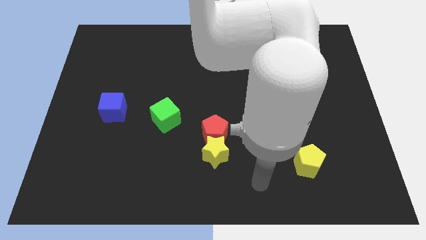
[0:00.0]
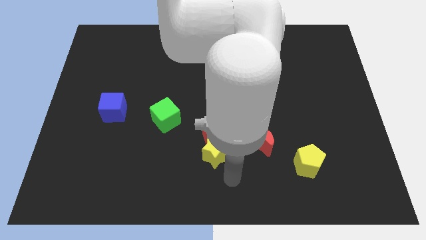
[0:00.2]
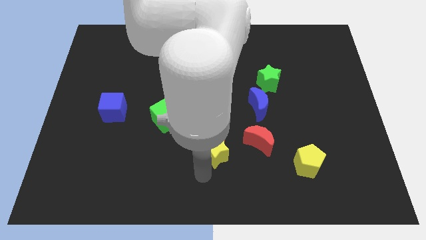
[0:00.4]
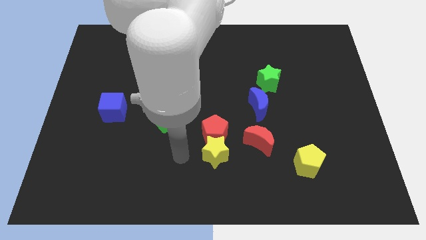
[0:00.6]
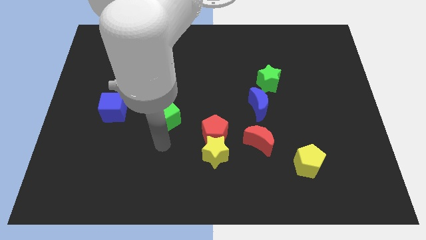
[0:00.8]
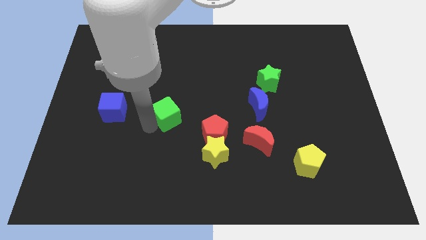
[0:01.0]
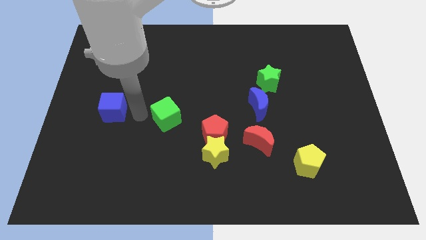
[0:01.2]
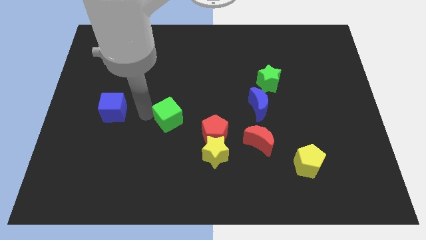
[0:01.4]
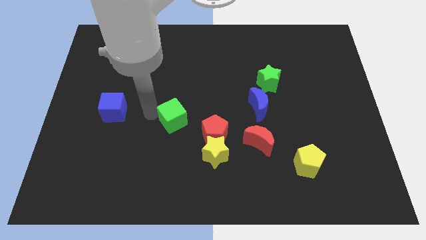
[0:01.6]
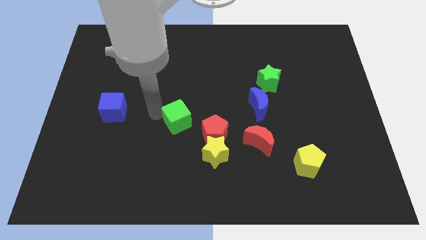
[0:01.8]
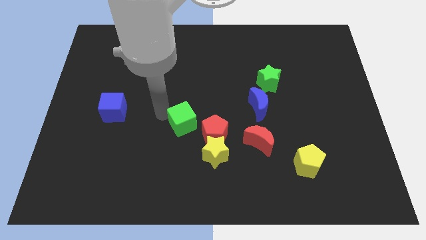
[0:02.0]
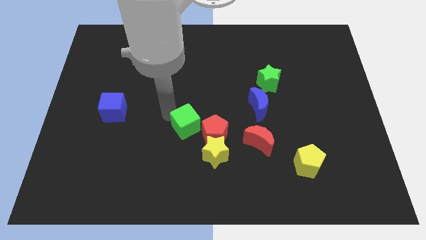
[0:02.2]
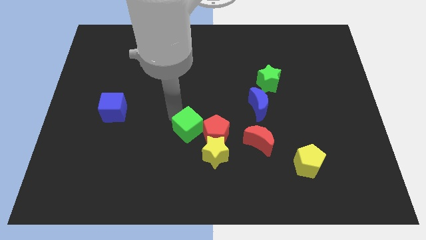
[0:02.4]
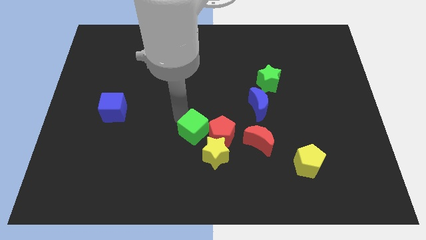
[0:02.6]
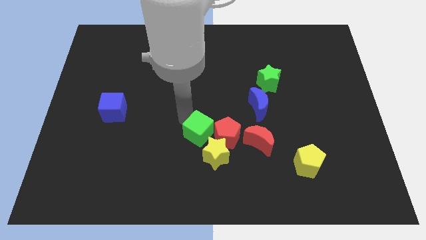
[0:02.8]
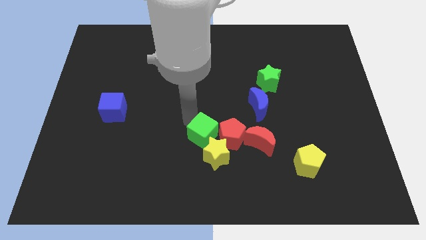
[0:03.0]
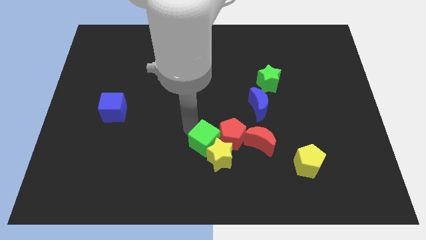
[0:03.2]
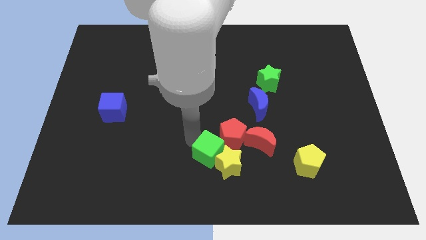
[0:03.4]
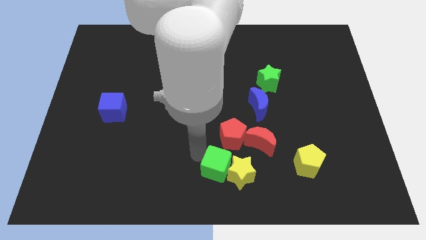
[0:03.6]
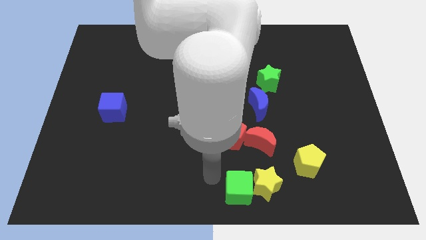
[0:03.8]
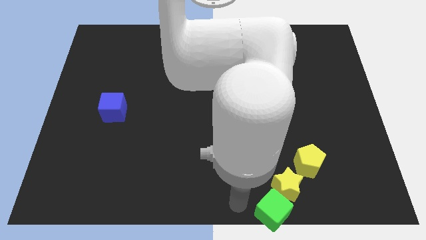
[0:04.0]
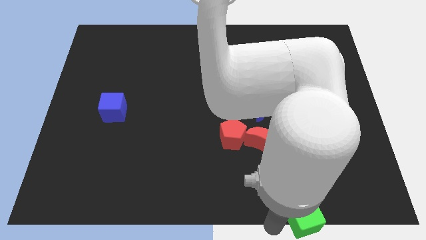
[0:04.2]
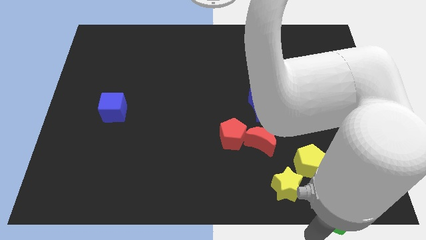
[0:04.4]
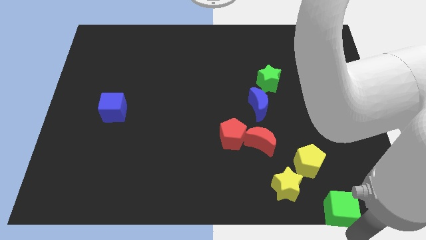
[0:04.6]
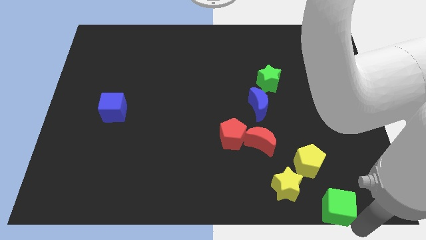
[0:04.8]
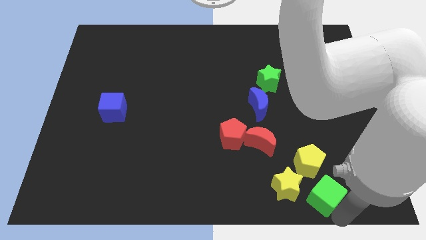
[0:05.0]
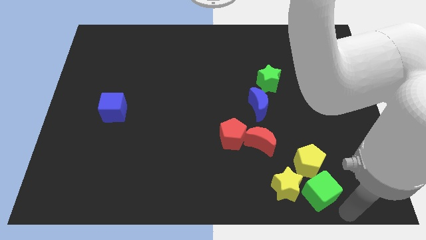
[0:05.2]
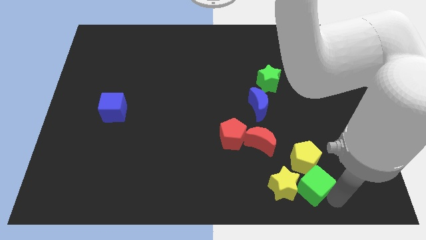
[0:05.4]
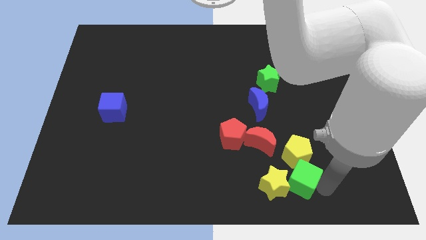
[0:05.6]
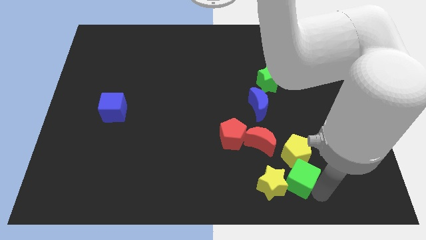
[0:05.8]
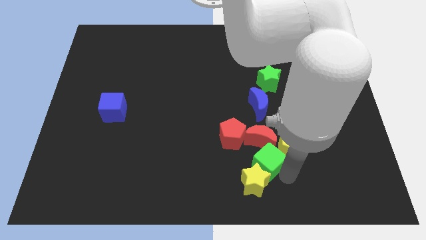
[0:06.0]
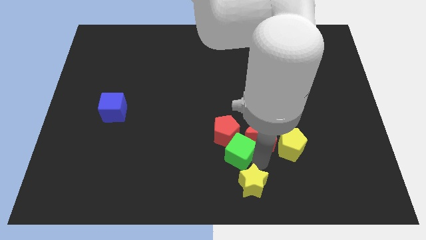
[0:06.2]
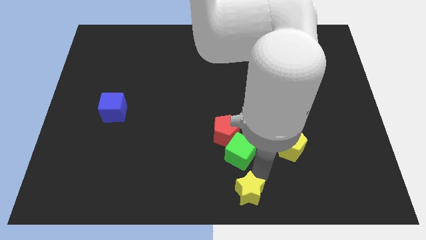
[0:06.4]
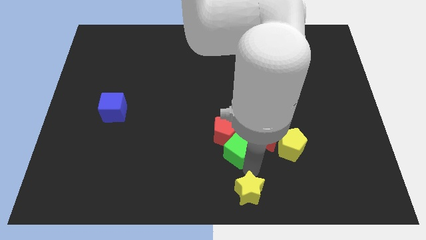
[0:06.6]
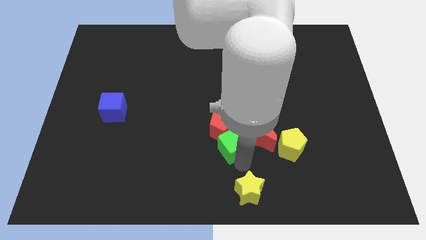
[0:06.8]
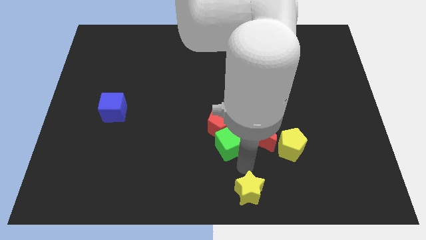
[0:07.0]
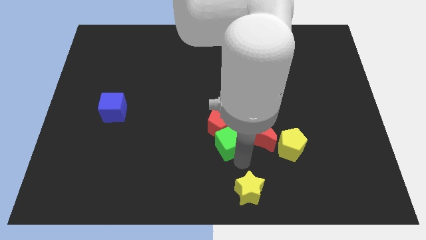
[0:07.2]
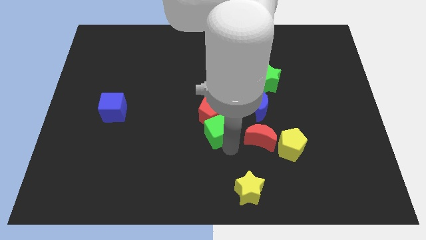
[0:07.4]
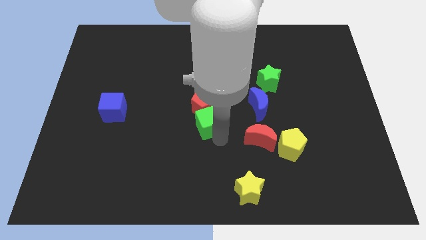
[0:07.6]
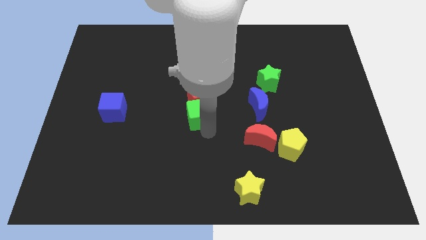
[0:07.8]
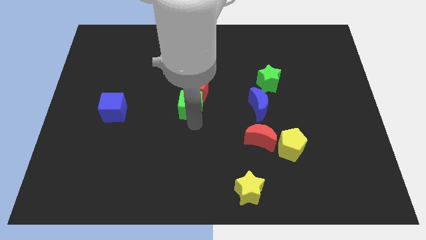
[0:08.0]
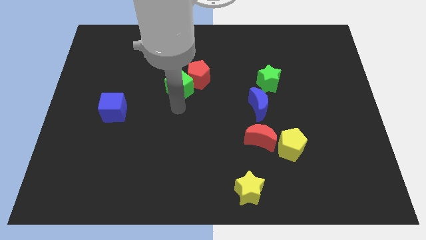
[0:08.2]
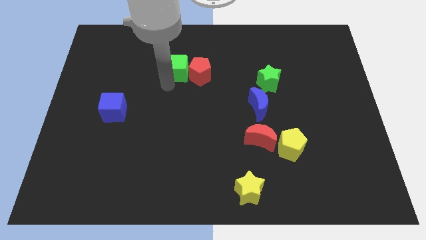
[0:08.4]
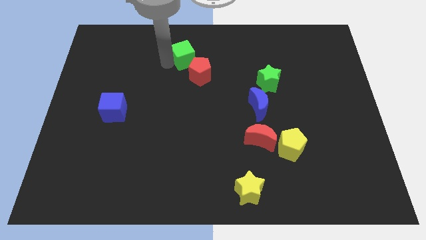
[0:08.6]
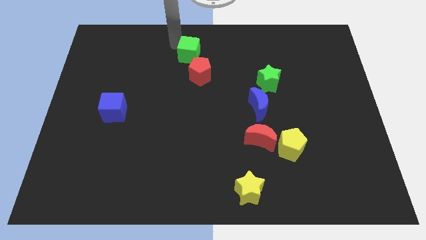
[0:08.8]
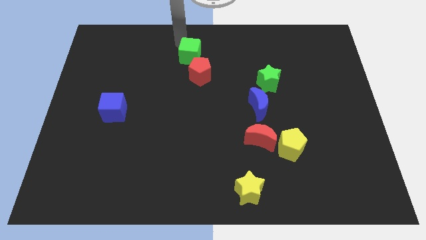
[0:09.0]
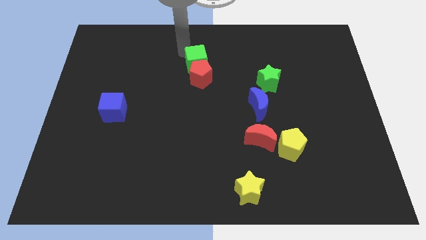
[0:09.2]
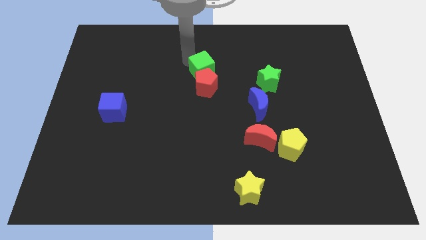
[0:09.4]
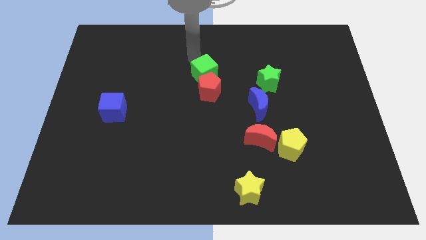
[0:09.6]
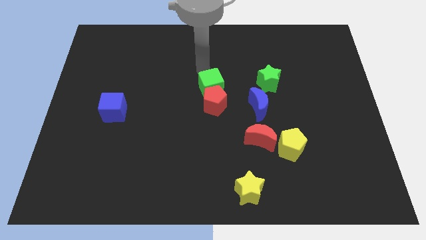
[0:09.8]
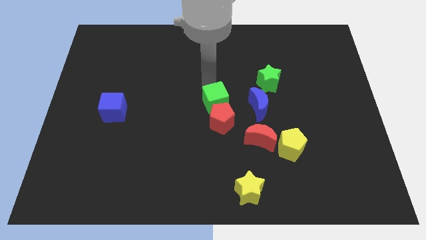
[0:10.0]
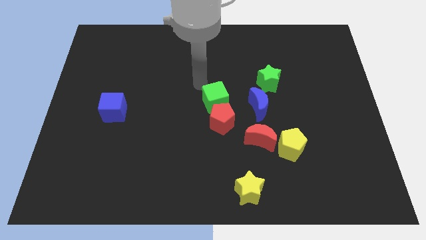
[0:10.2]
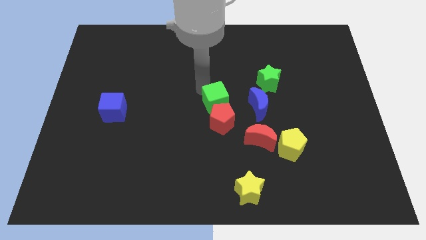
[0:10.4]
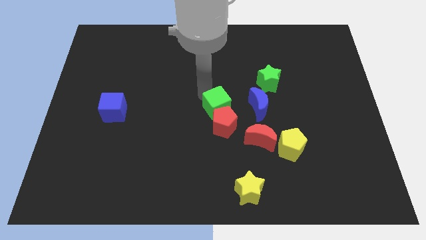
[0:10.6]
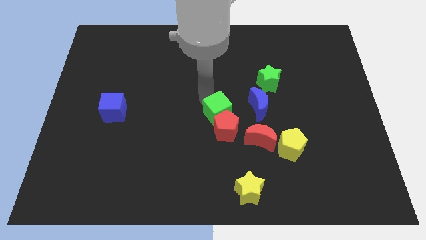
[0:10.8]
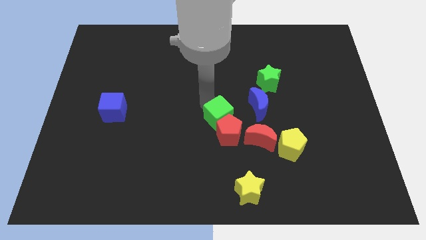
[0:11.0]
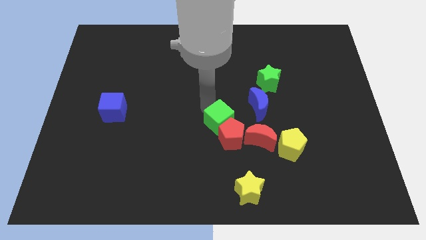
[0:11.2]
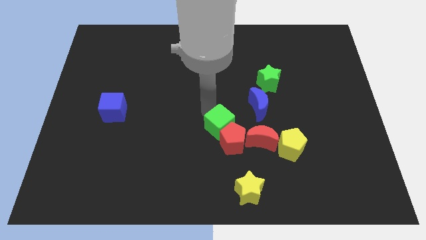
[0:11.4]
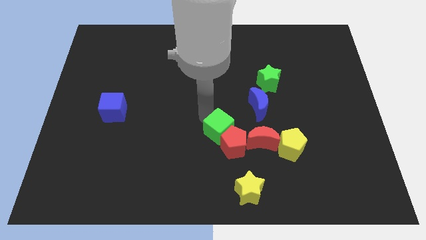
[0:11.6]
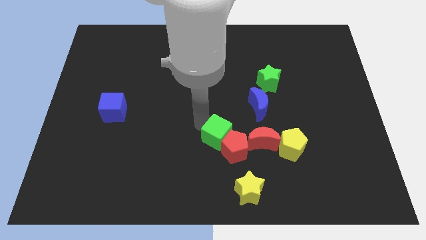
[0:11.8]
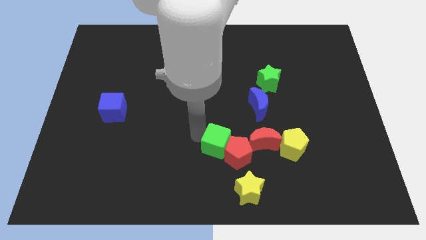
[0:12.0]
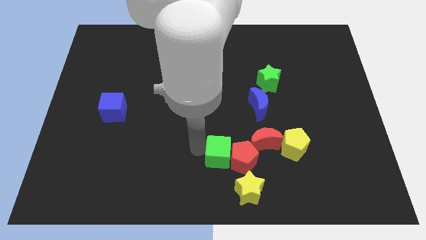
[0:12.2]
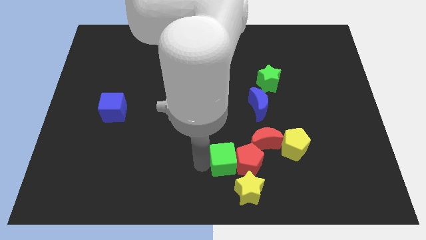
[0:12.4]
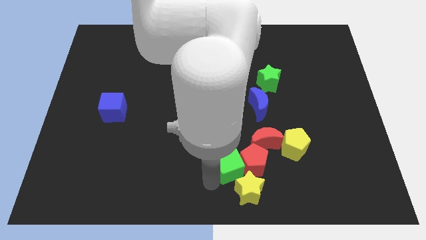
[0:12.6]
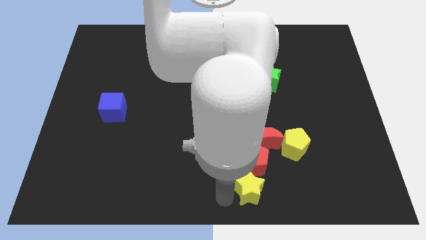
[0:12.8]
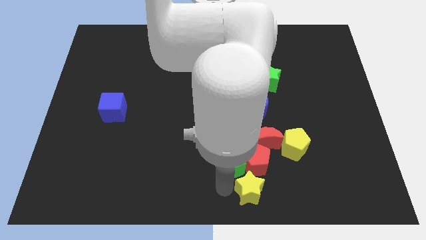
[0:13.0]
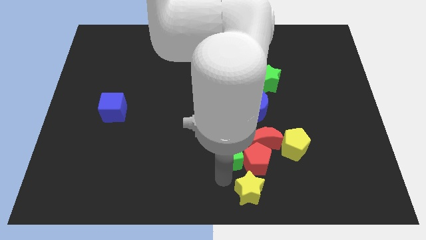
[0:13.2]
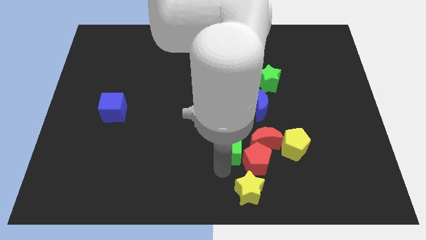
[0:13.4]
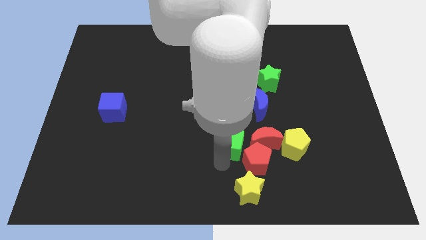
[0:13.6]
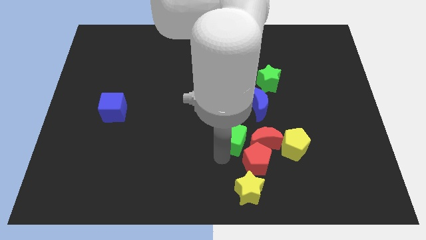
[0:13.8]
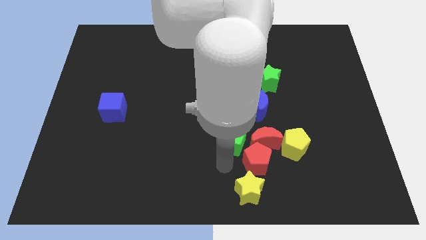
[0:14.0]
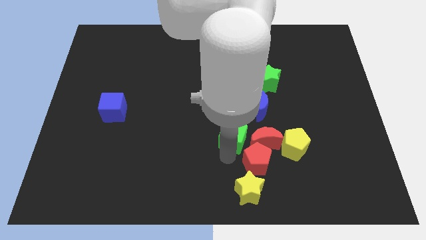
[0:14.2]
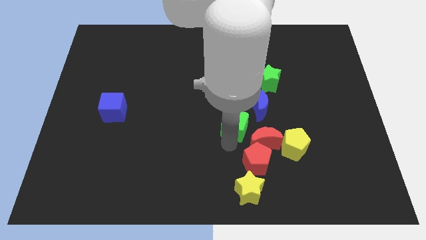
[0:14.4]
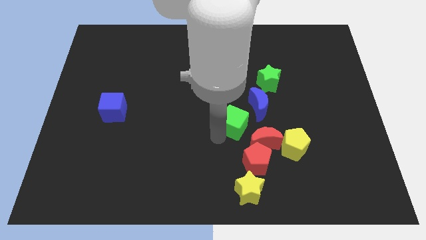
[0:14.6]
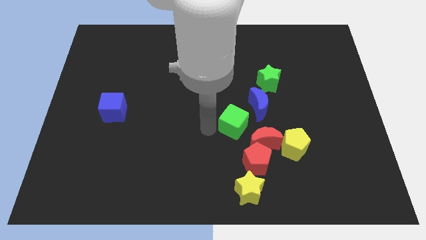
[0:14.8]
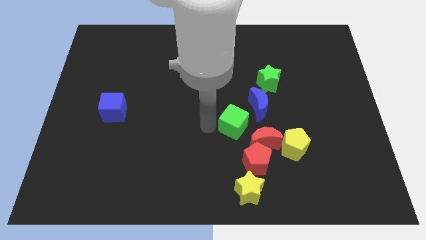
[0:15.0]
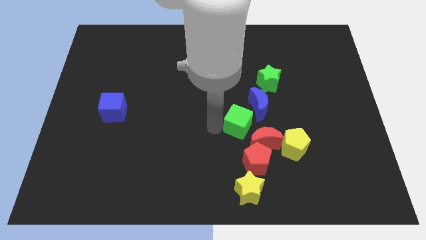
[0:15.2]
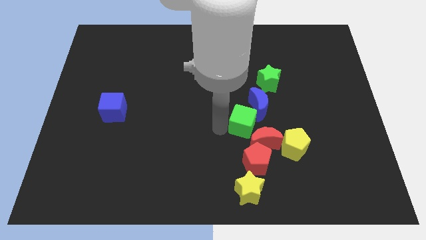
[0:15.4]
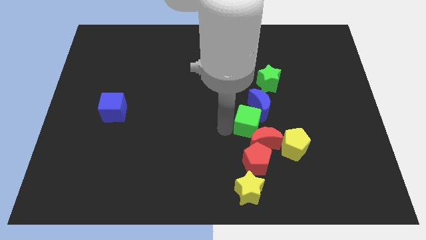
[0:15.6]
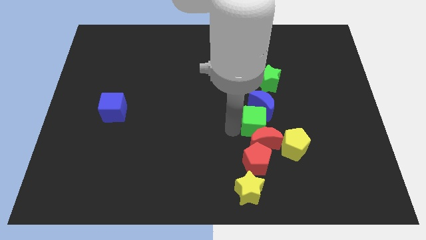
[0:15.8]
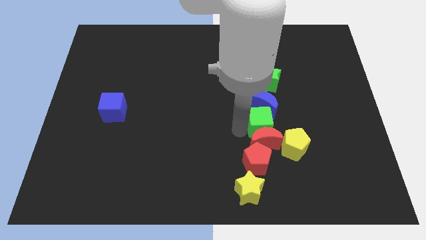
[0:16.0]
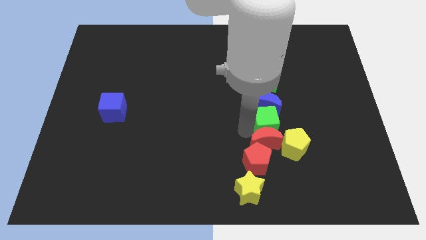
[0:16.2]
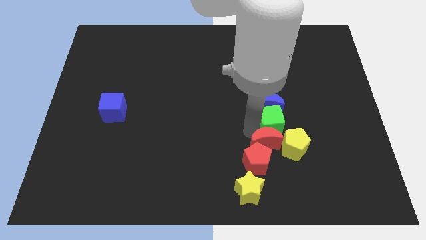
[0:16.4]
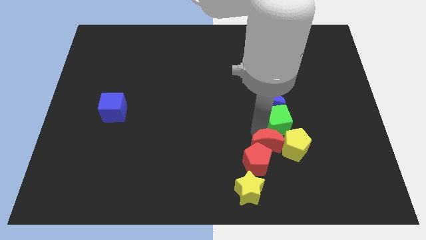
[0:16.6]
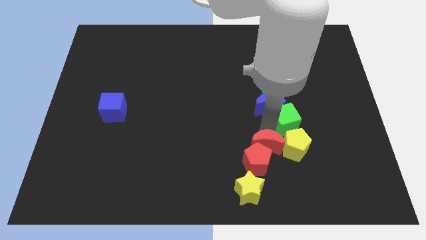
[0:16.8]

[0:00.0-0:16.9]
move the green cube just right of the blue moon
